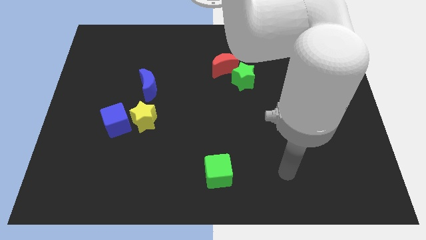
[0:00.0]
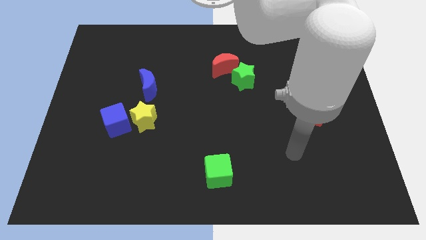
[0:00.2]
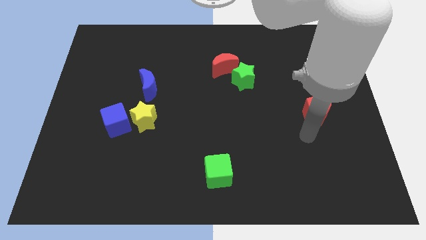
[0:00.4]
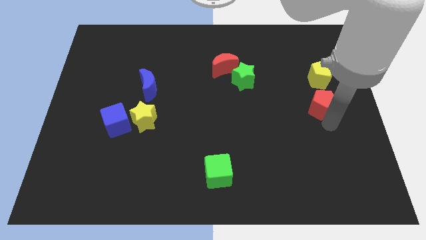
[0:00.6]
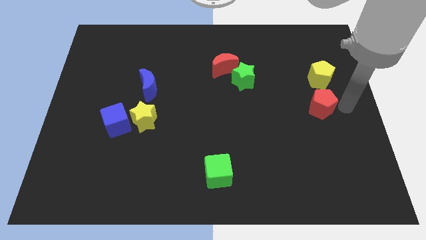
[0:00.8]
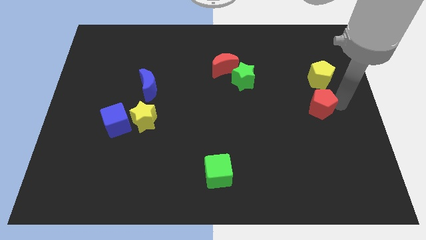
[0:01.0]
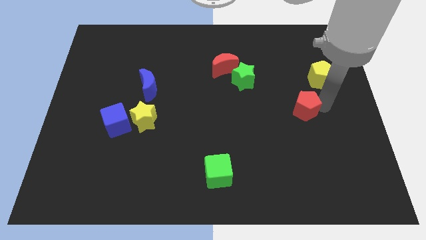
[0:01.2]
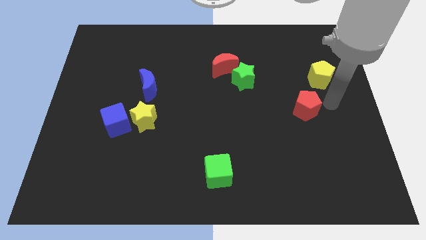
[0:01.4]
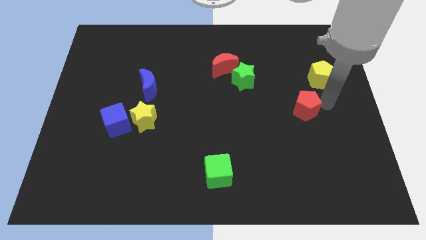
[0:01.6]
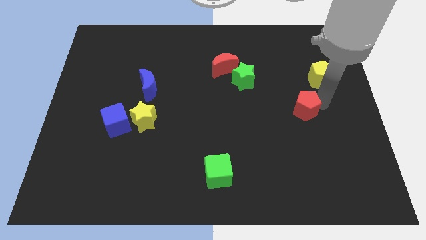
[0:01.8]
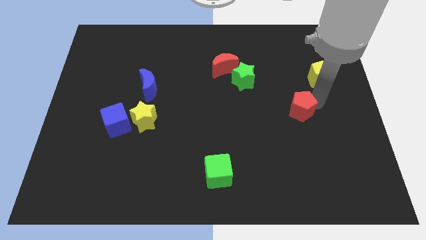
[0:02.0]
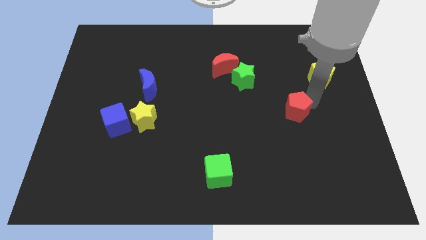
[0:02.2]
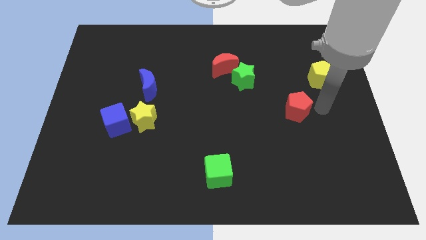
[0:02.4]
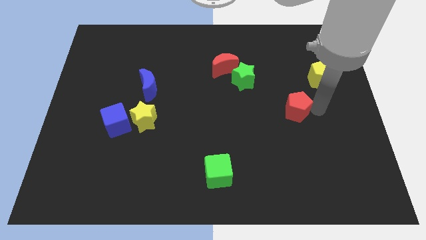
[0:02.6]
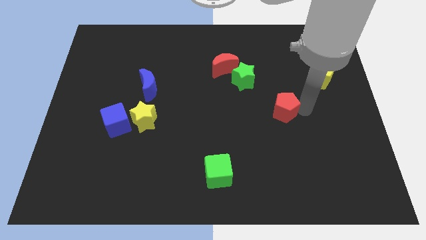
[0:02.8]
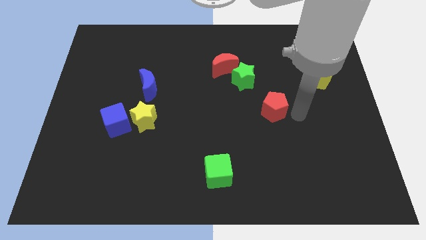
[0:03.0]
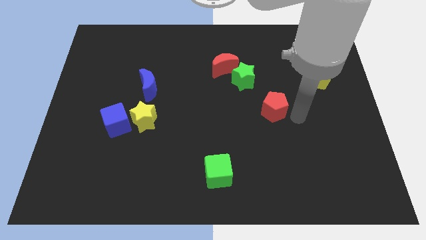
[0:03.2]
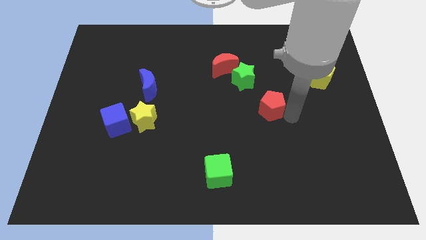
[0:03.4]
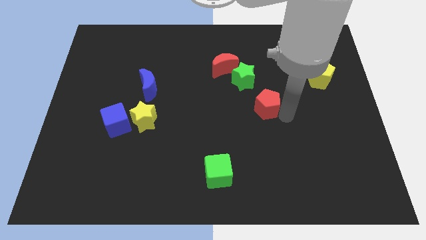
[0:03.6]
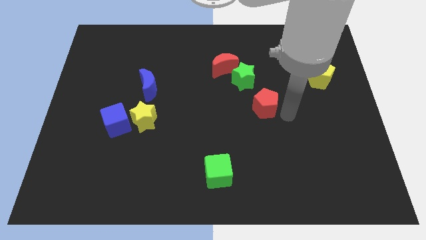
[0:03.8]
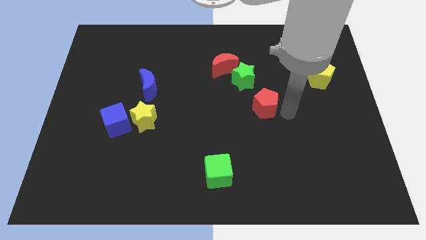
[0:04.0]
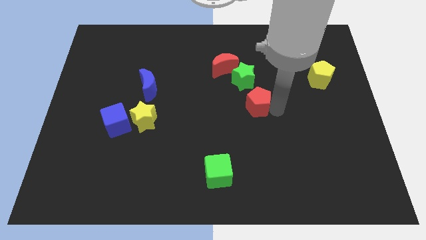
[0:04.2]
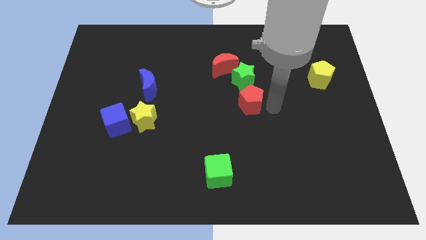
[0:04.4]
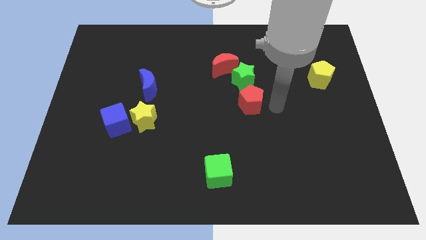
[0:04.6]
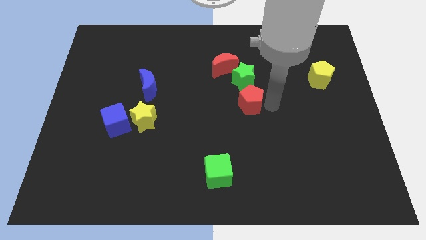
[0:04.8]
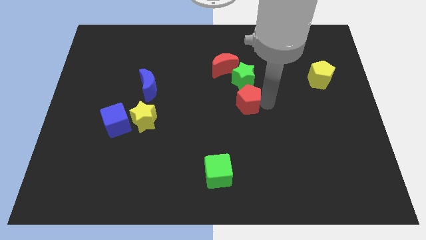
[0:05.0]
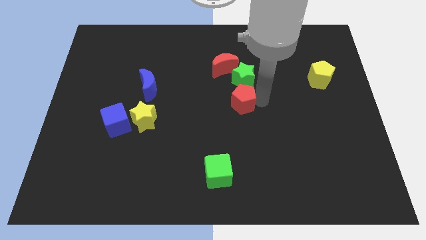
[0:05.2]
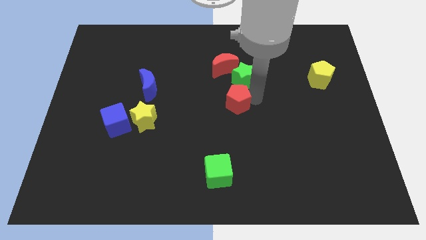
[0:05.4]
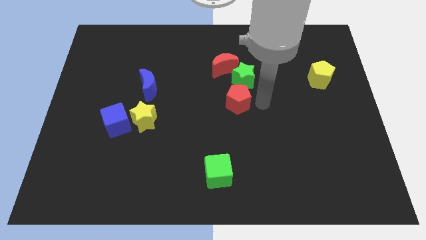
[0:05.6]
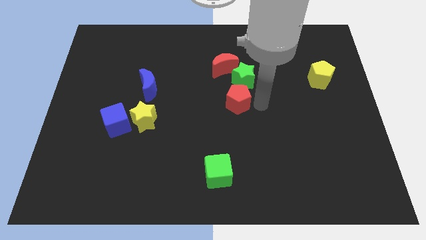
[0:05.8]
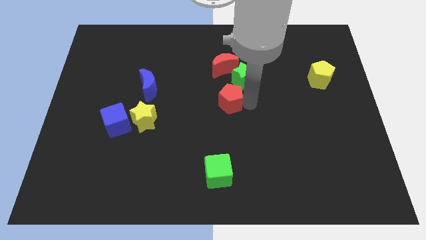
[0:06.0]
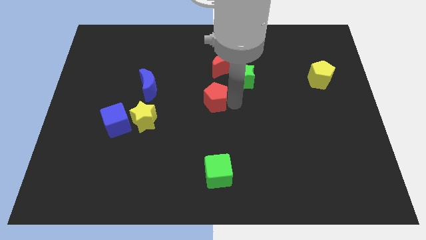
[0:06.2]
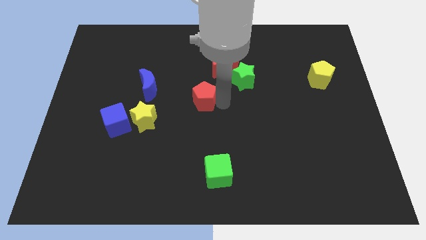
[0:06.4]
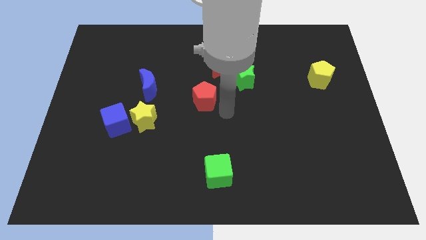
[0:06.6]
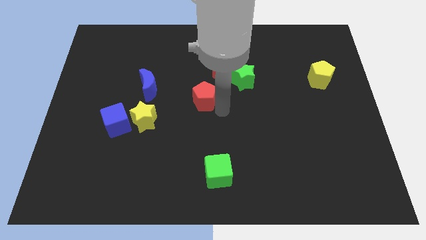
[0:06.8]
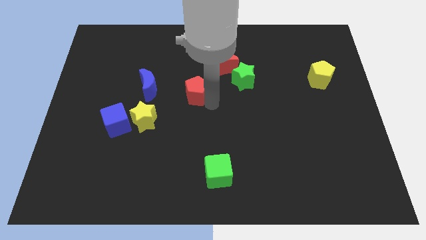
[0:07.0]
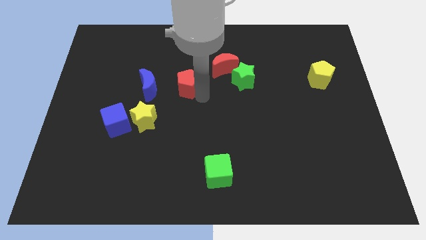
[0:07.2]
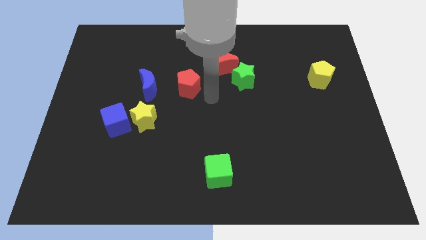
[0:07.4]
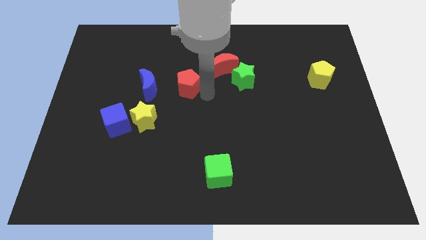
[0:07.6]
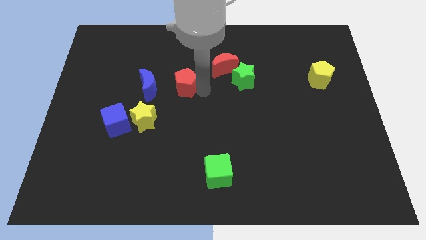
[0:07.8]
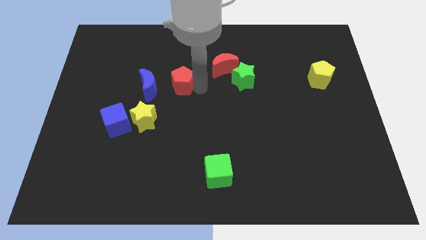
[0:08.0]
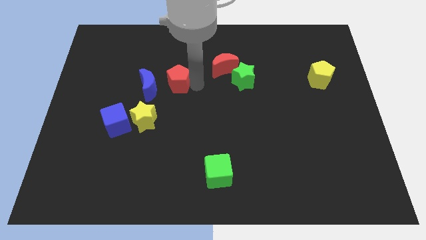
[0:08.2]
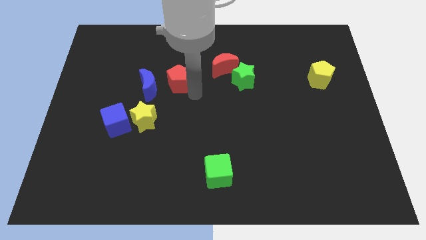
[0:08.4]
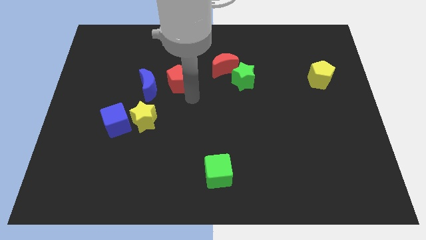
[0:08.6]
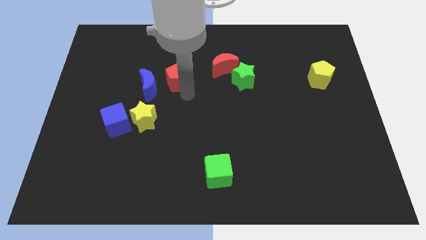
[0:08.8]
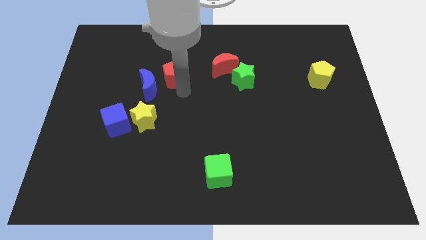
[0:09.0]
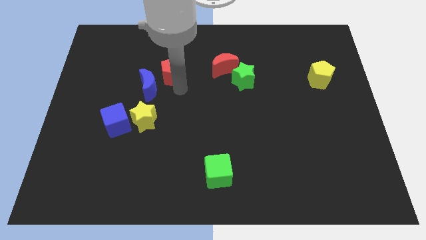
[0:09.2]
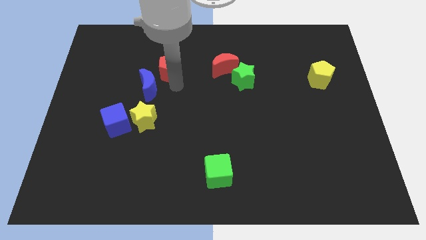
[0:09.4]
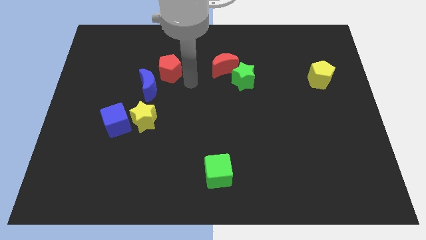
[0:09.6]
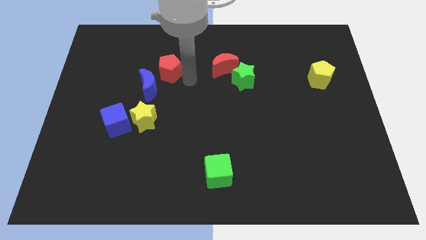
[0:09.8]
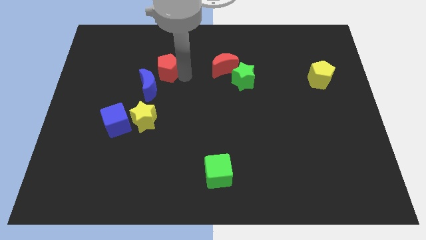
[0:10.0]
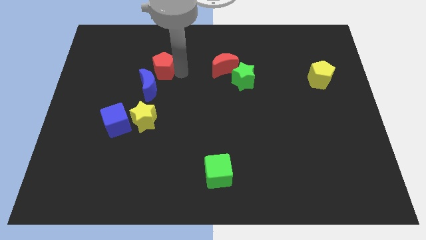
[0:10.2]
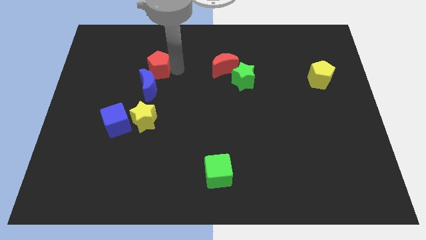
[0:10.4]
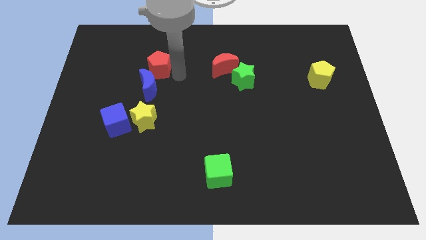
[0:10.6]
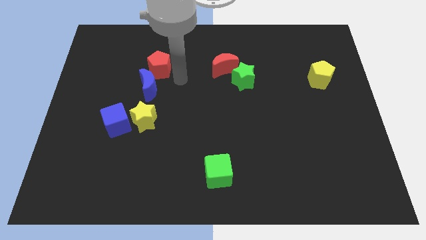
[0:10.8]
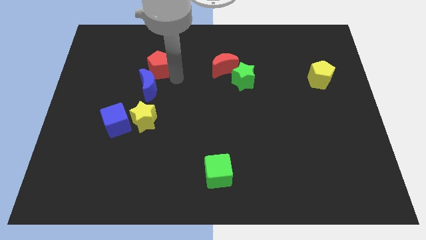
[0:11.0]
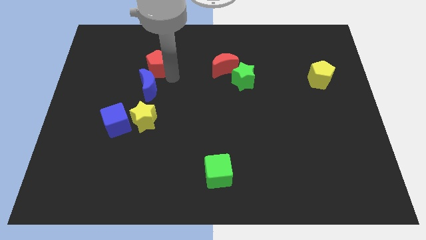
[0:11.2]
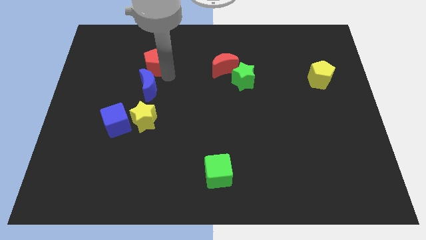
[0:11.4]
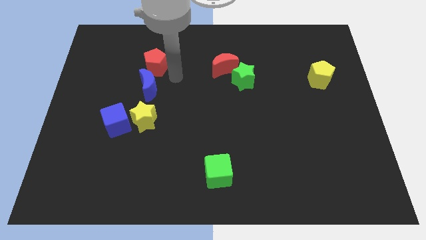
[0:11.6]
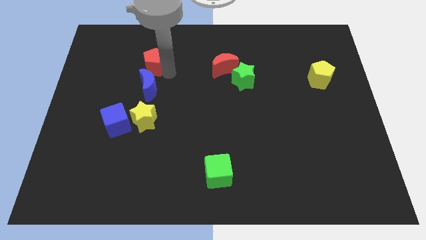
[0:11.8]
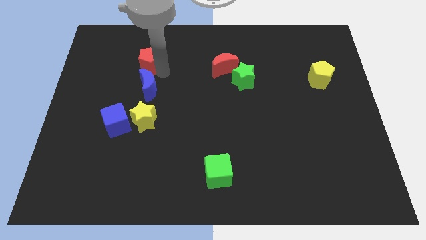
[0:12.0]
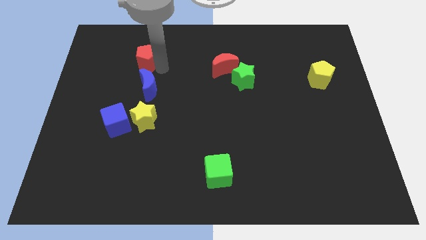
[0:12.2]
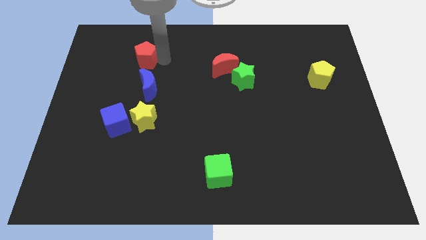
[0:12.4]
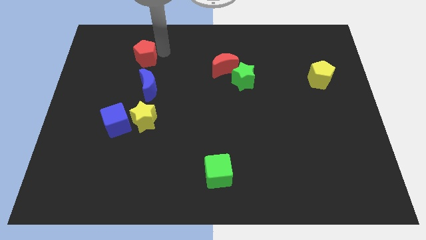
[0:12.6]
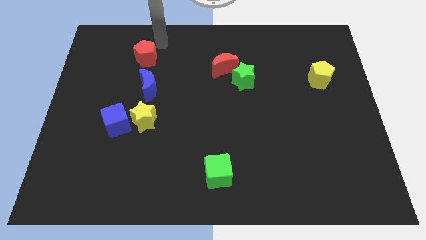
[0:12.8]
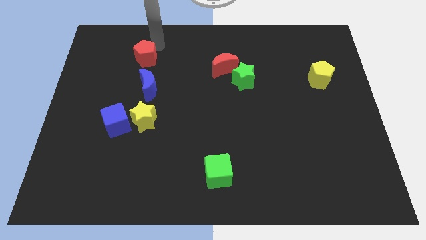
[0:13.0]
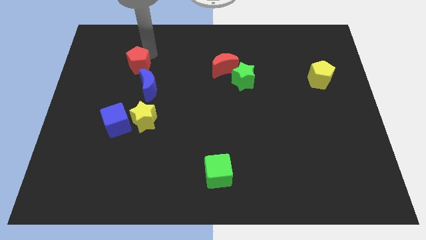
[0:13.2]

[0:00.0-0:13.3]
move the red pentagon to the top left side of the blue moon

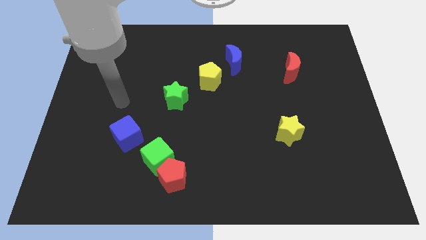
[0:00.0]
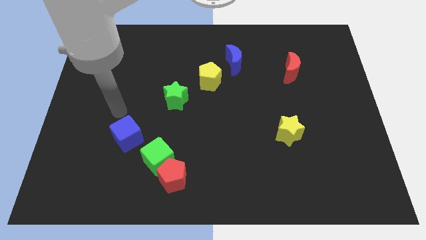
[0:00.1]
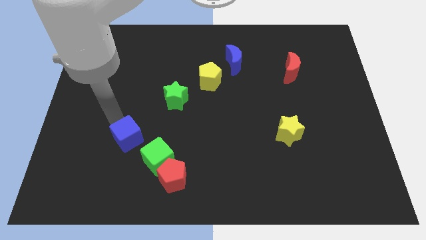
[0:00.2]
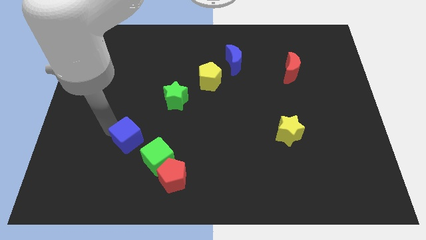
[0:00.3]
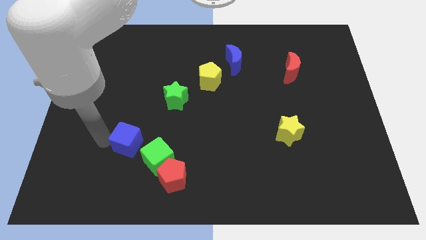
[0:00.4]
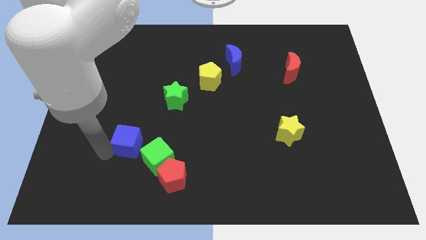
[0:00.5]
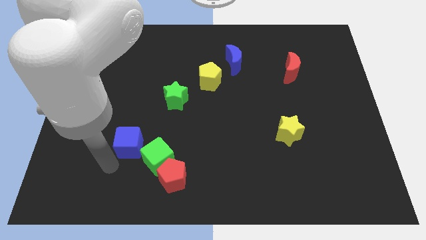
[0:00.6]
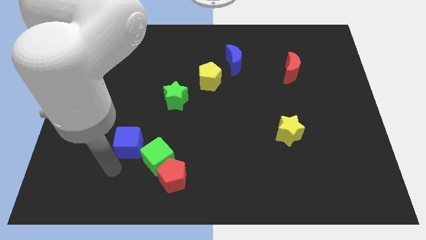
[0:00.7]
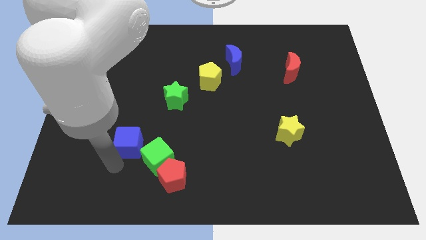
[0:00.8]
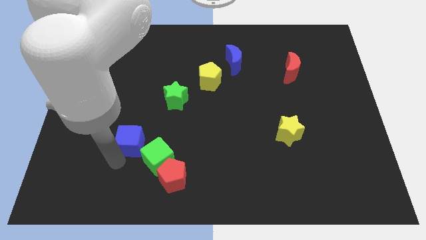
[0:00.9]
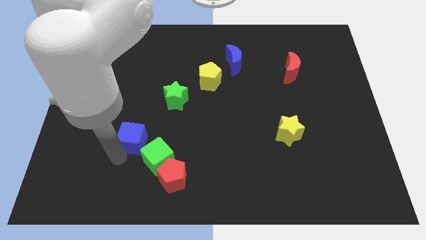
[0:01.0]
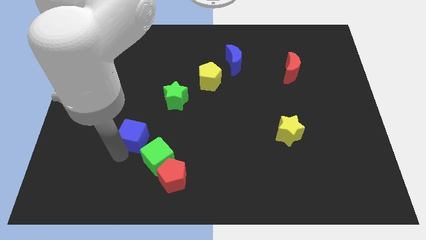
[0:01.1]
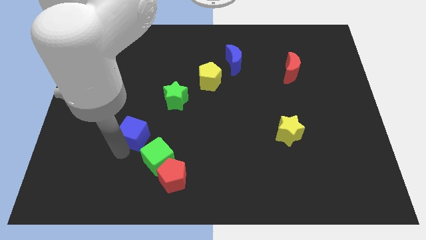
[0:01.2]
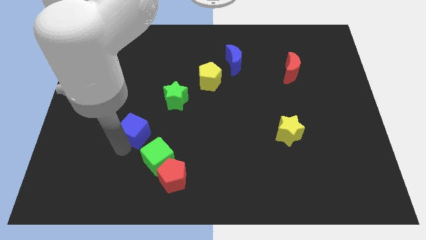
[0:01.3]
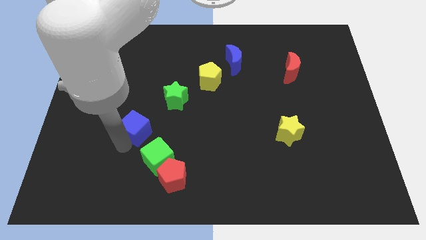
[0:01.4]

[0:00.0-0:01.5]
push the blue cube to the bottom left side of the green star
